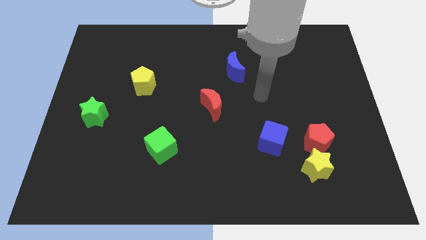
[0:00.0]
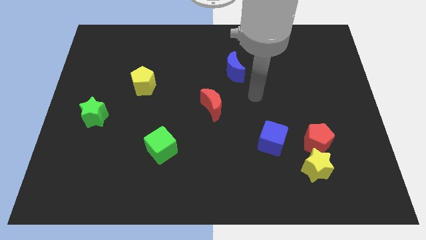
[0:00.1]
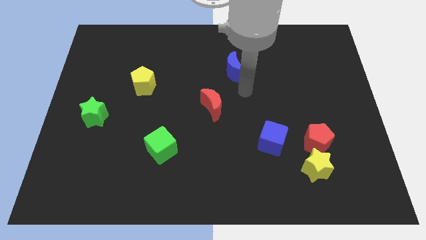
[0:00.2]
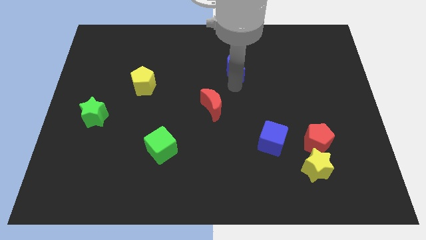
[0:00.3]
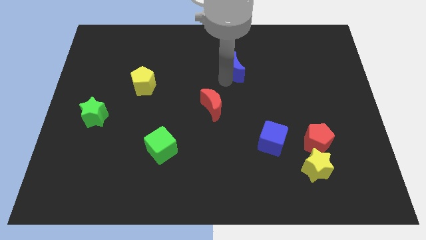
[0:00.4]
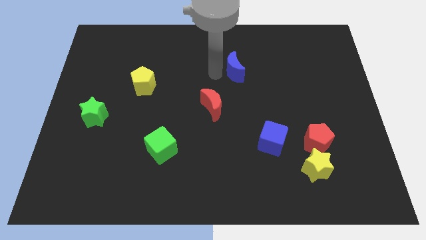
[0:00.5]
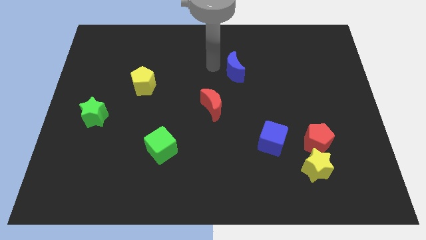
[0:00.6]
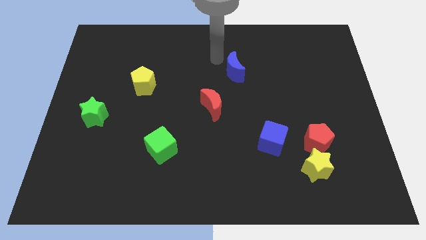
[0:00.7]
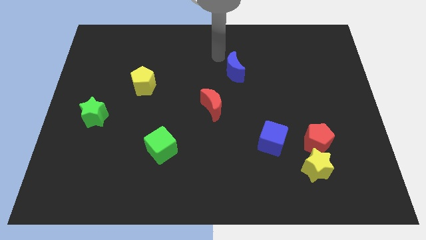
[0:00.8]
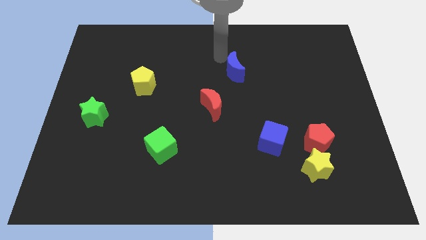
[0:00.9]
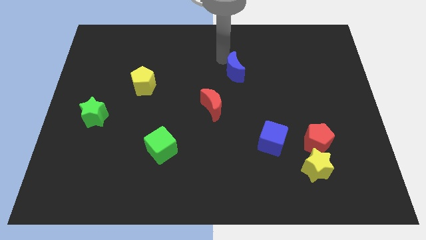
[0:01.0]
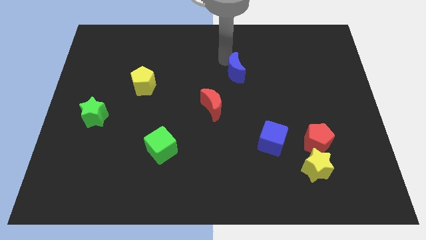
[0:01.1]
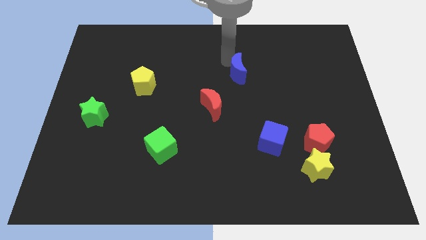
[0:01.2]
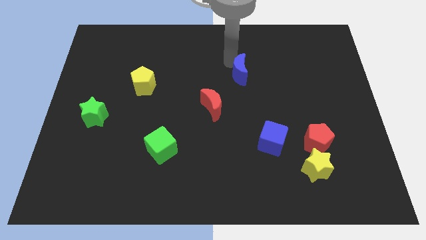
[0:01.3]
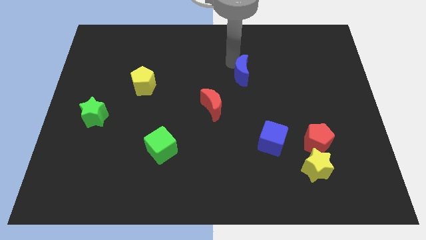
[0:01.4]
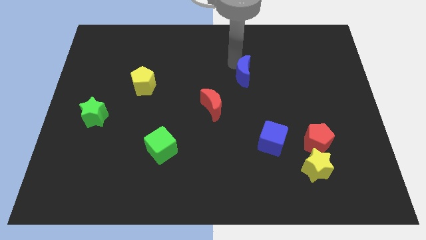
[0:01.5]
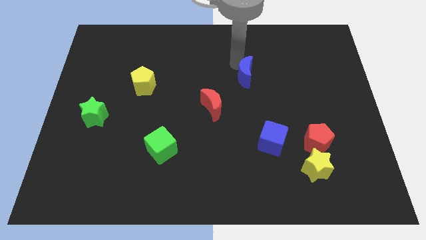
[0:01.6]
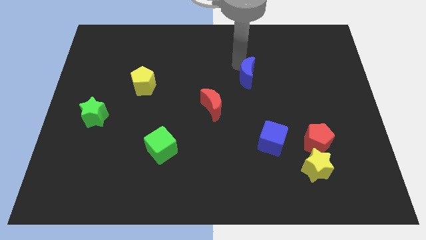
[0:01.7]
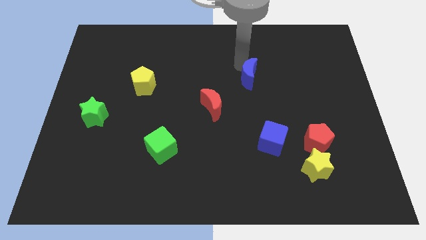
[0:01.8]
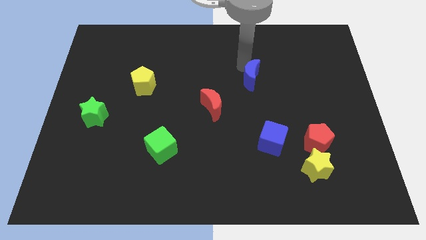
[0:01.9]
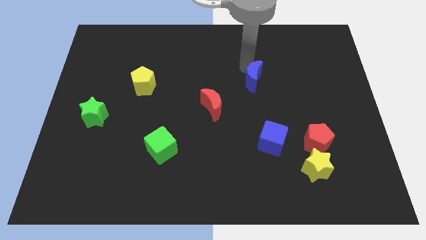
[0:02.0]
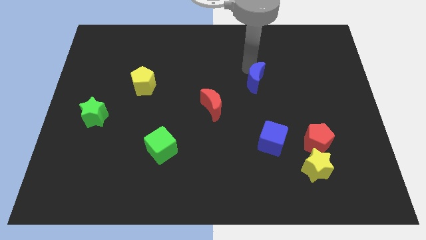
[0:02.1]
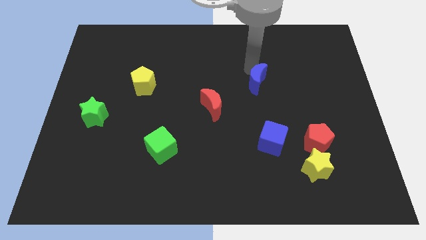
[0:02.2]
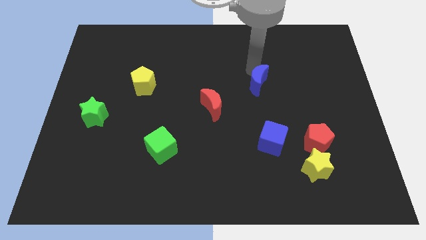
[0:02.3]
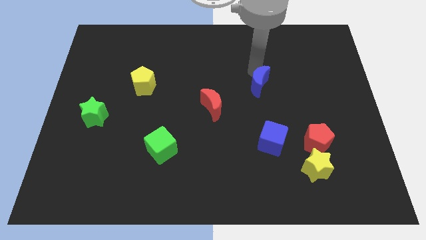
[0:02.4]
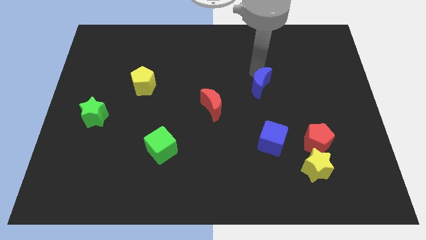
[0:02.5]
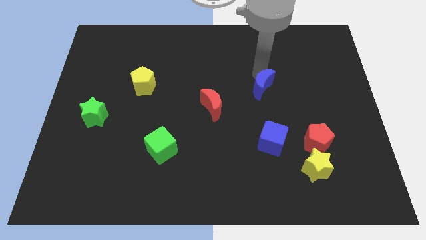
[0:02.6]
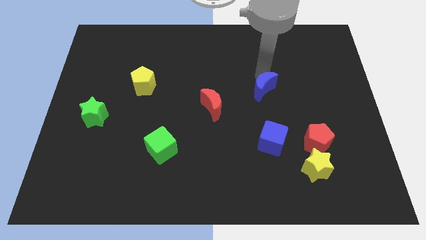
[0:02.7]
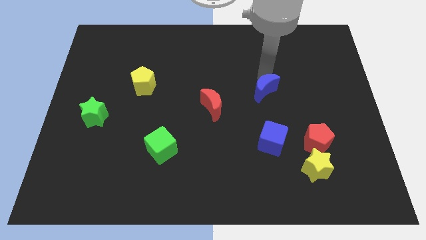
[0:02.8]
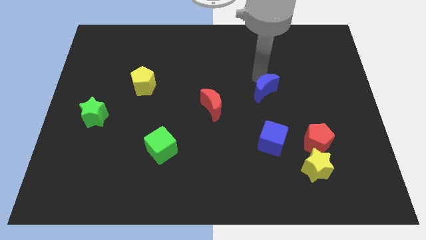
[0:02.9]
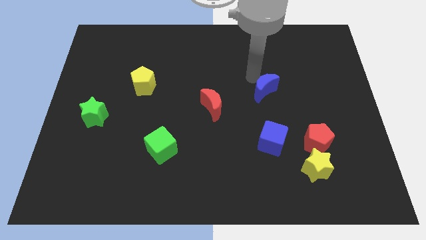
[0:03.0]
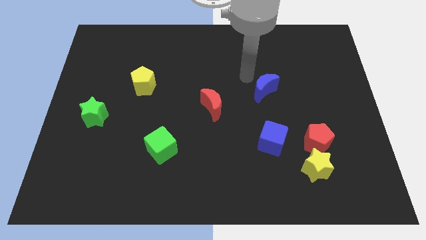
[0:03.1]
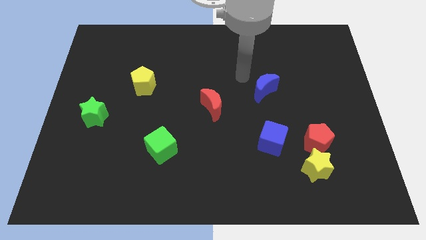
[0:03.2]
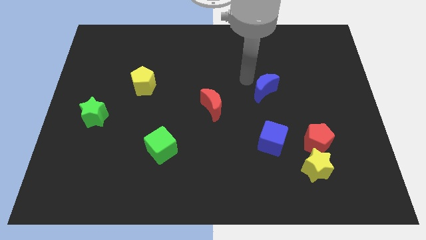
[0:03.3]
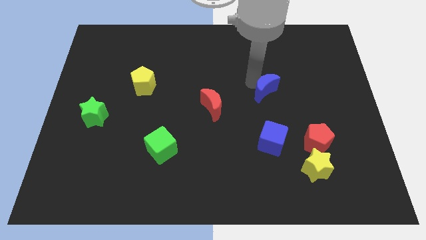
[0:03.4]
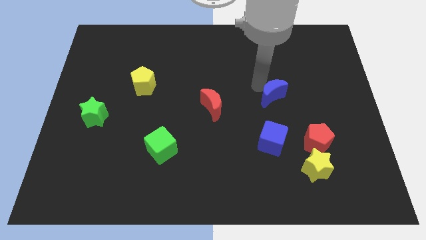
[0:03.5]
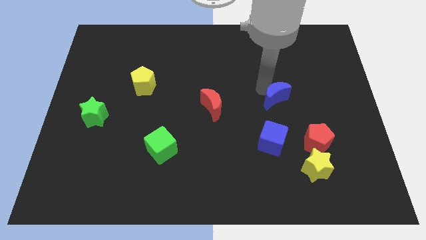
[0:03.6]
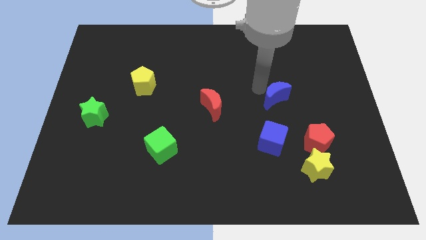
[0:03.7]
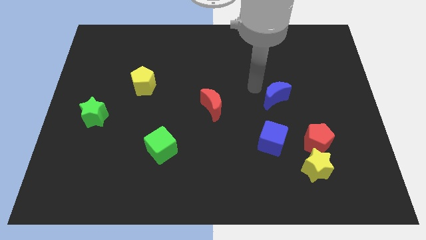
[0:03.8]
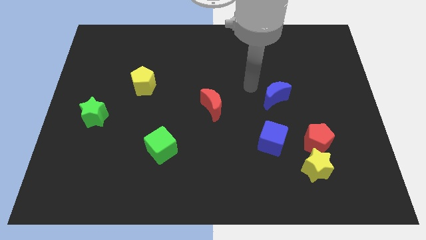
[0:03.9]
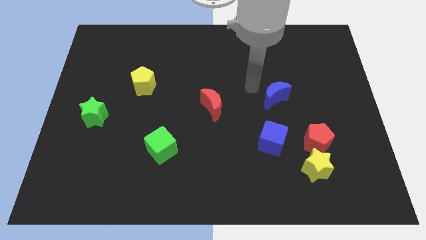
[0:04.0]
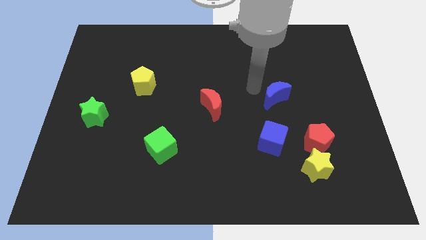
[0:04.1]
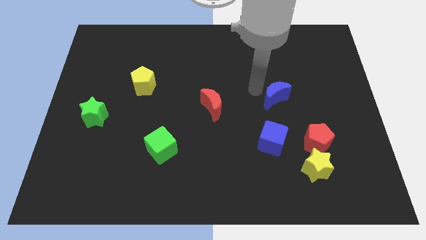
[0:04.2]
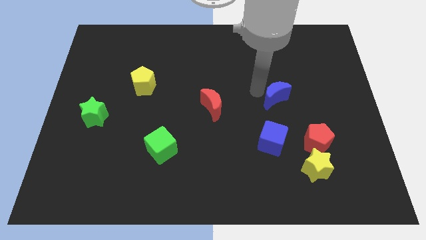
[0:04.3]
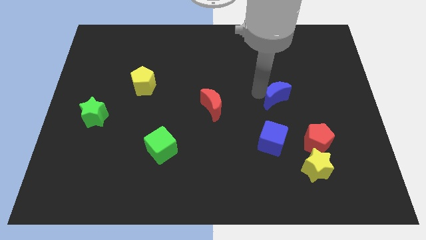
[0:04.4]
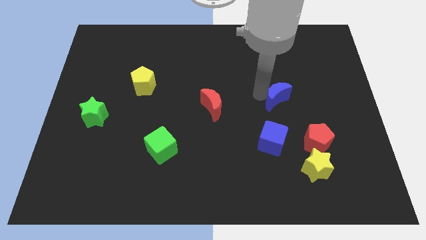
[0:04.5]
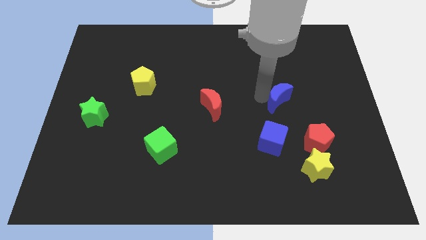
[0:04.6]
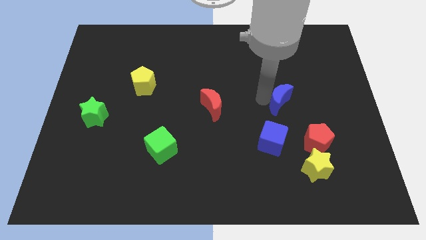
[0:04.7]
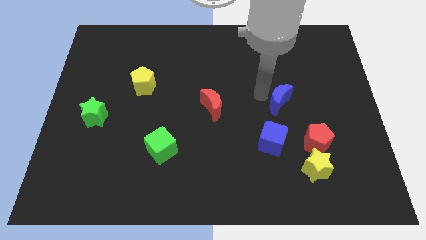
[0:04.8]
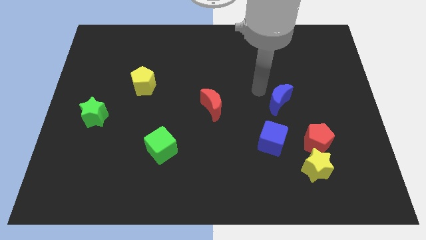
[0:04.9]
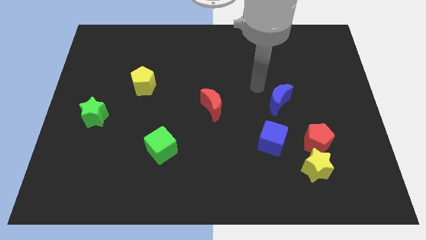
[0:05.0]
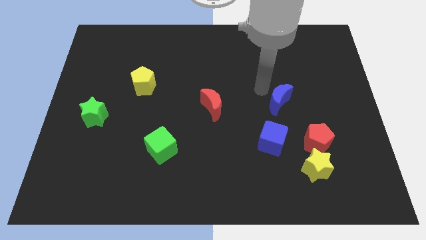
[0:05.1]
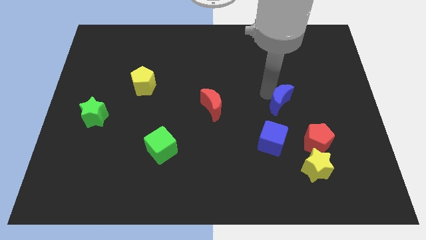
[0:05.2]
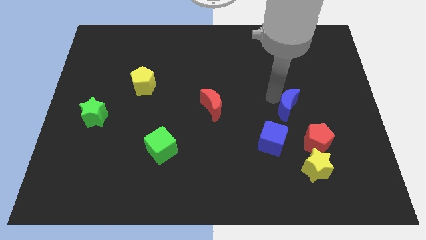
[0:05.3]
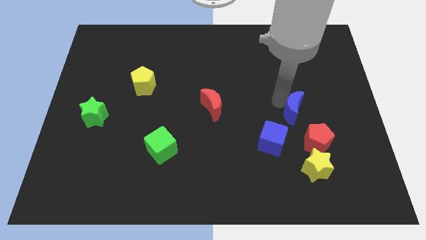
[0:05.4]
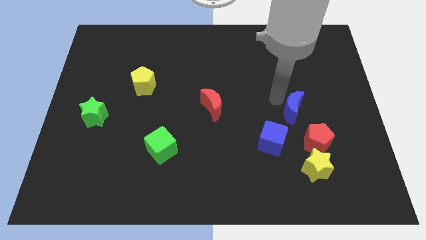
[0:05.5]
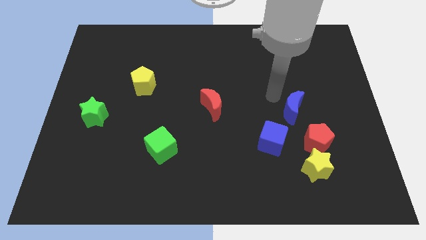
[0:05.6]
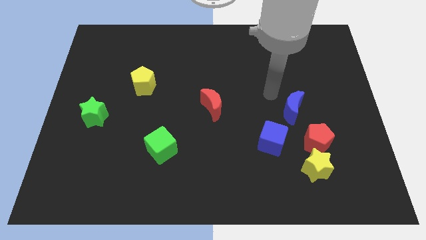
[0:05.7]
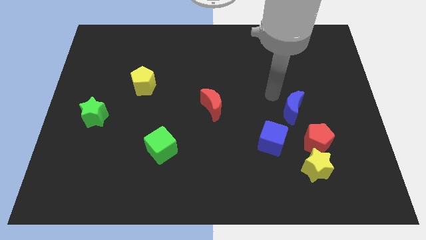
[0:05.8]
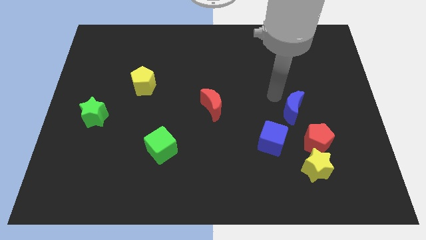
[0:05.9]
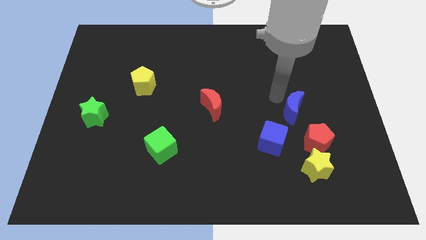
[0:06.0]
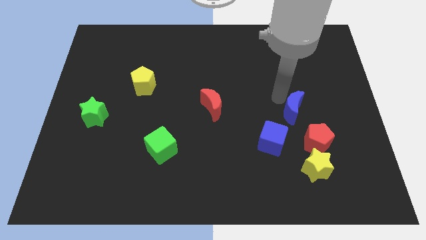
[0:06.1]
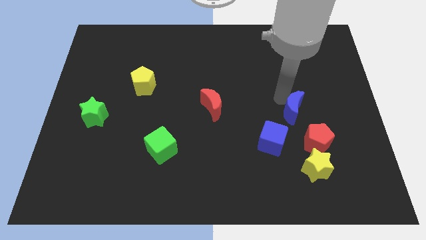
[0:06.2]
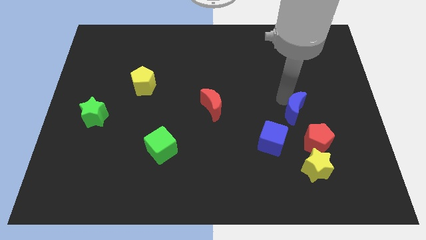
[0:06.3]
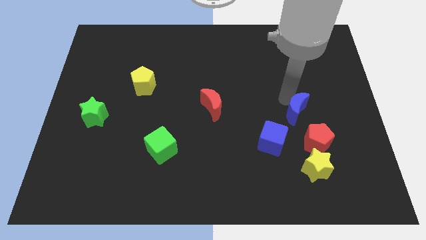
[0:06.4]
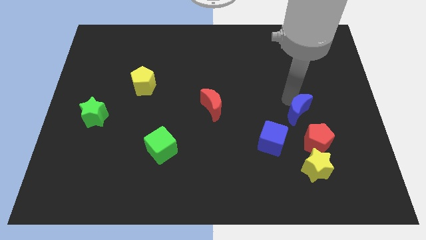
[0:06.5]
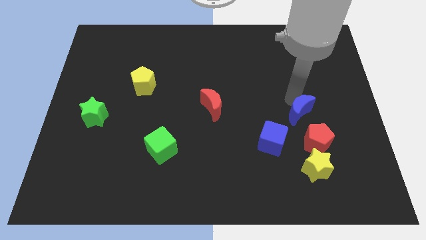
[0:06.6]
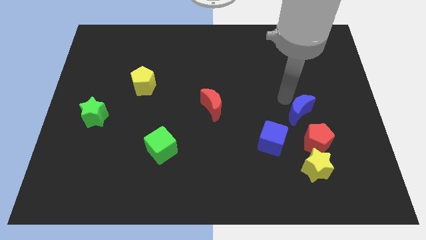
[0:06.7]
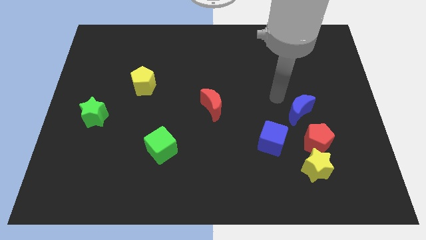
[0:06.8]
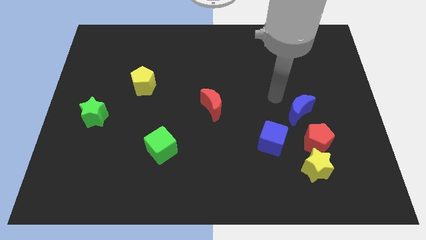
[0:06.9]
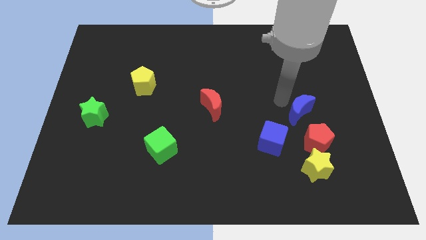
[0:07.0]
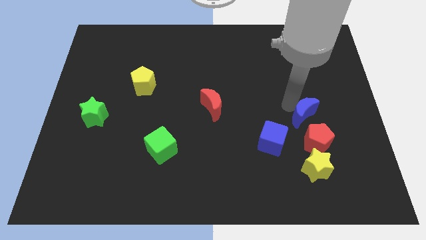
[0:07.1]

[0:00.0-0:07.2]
move the blue moon diagonally downwards and right

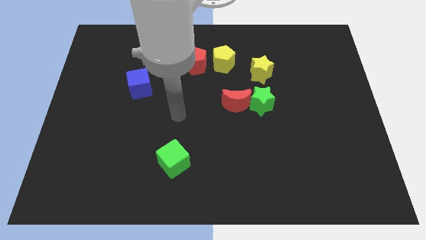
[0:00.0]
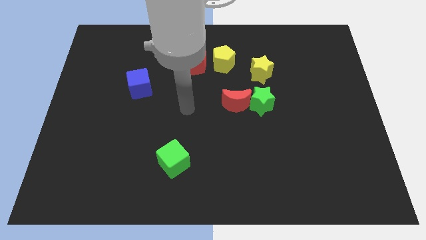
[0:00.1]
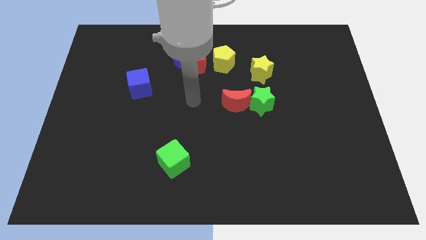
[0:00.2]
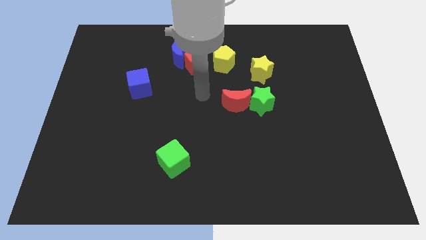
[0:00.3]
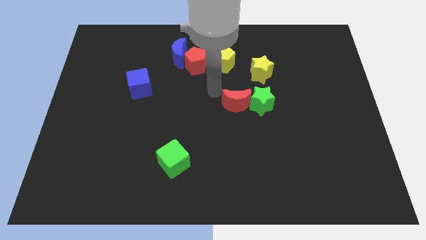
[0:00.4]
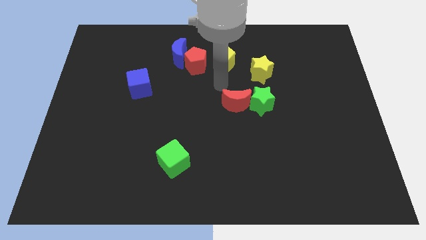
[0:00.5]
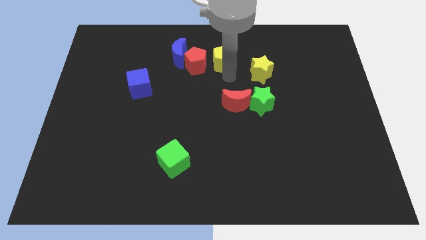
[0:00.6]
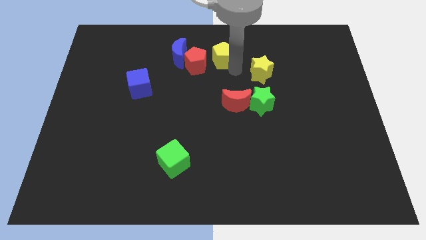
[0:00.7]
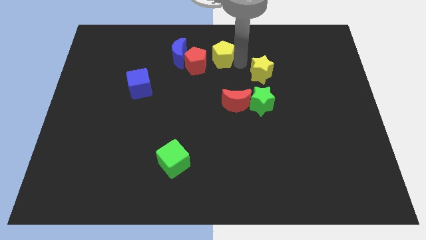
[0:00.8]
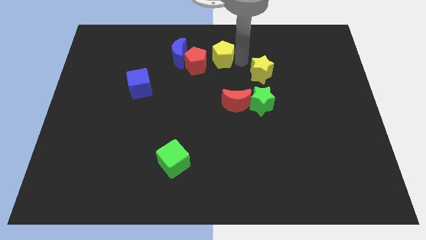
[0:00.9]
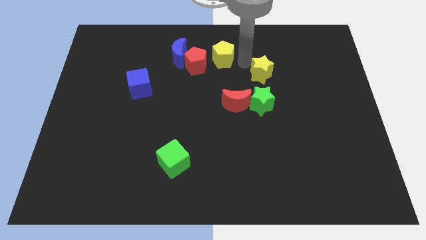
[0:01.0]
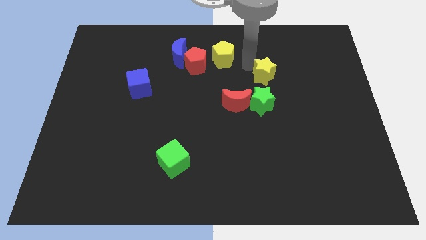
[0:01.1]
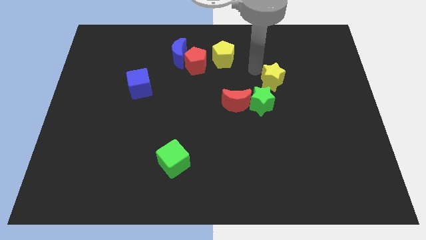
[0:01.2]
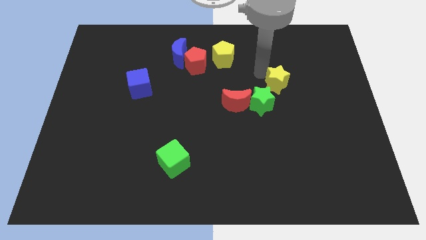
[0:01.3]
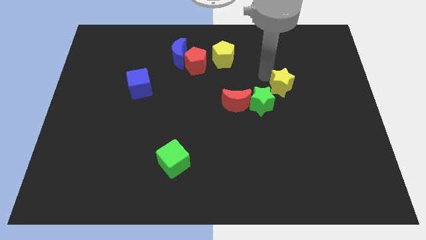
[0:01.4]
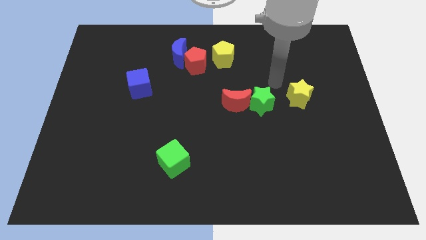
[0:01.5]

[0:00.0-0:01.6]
push the yellow star somewhat downwards and right
